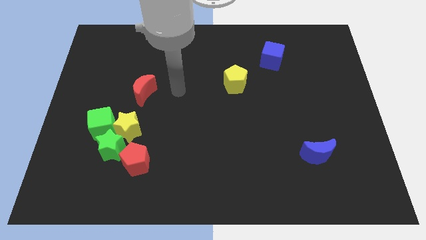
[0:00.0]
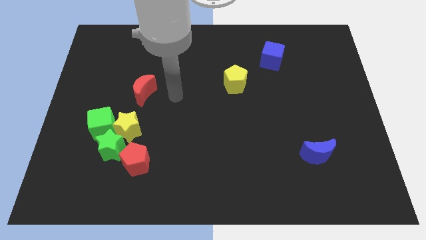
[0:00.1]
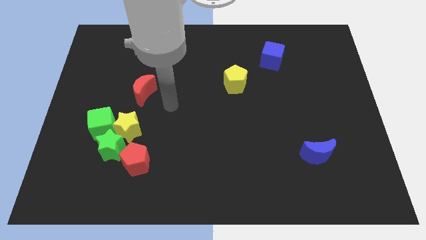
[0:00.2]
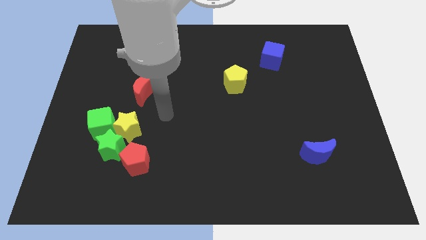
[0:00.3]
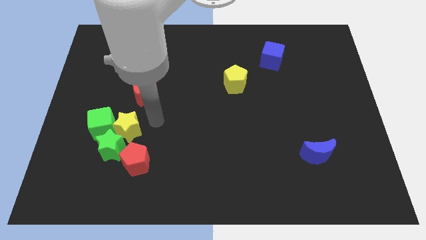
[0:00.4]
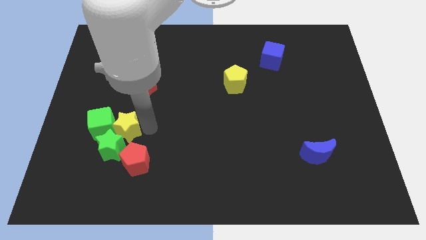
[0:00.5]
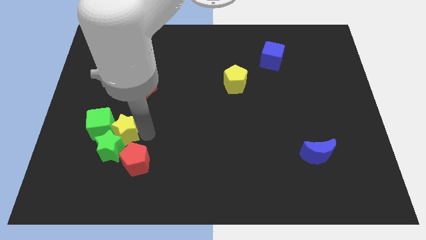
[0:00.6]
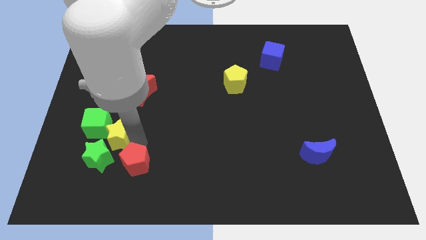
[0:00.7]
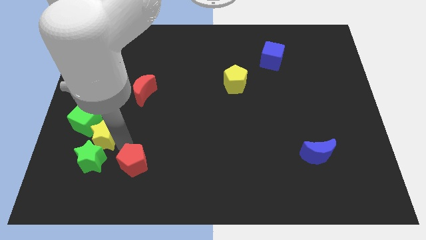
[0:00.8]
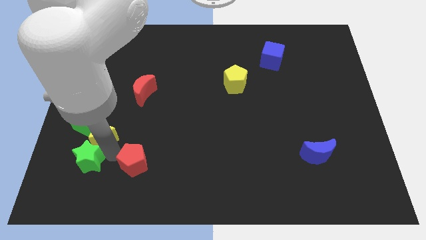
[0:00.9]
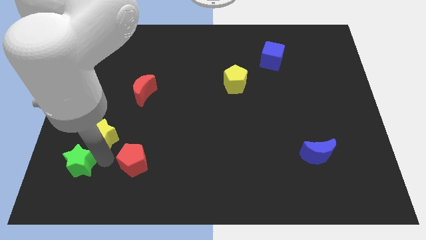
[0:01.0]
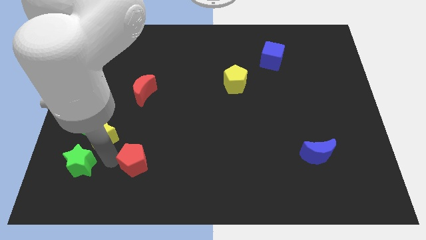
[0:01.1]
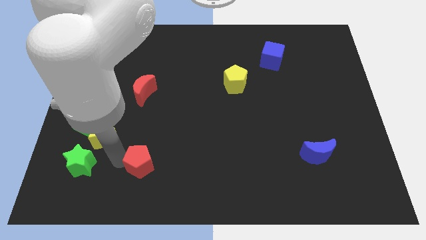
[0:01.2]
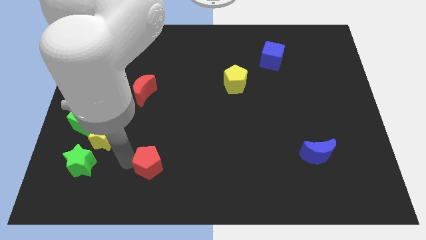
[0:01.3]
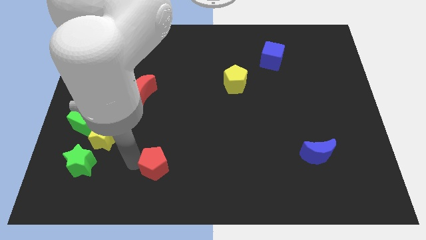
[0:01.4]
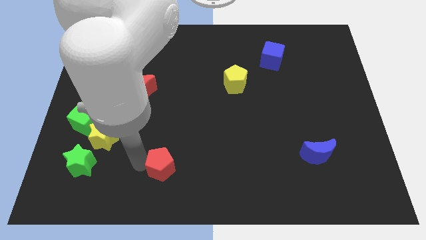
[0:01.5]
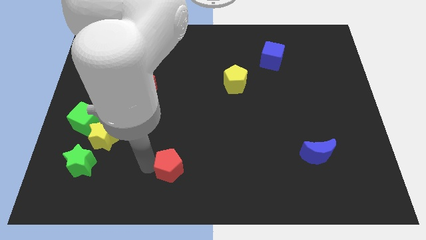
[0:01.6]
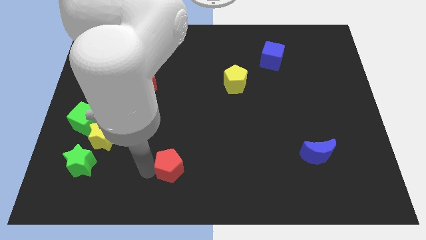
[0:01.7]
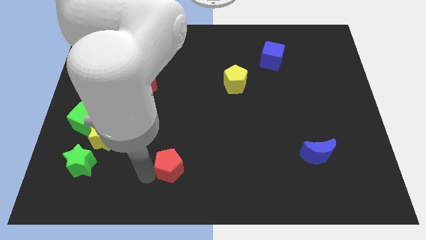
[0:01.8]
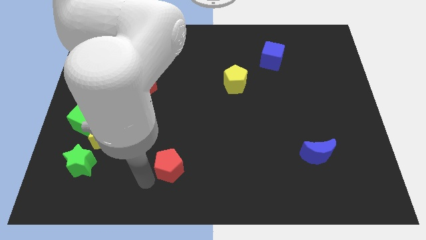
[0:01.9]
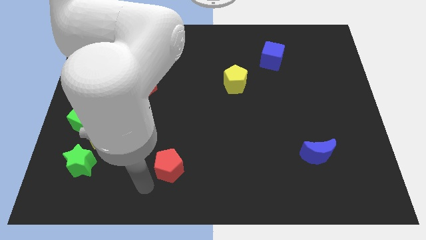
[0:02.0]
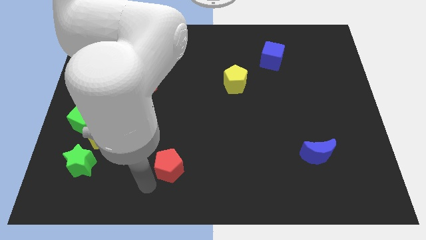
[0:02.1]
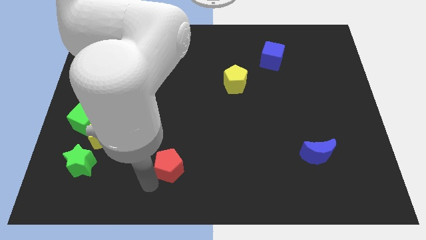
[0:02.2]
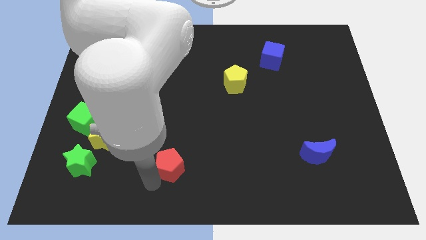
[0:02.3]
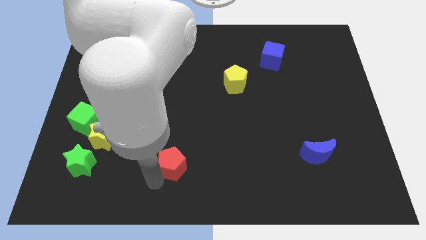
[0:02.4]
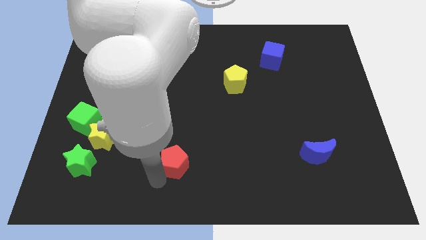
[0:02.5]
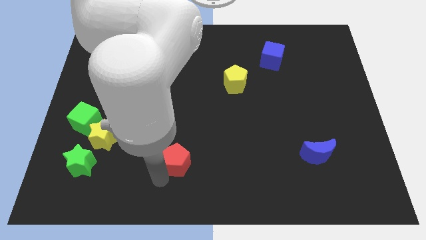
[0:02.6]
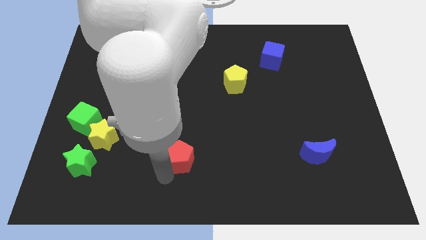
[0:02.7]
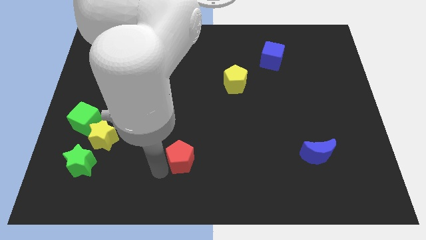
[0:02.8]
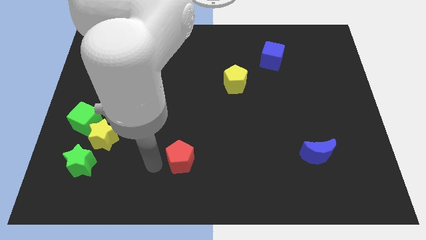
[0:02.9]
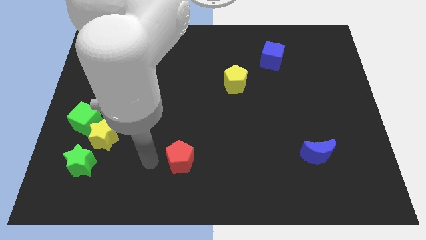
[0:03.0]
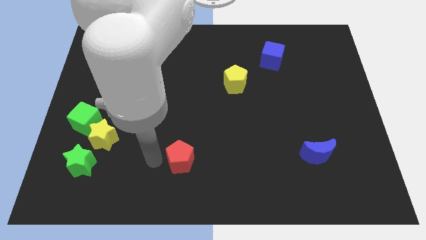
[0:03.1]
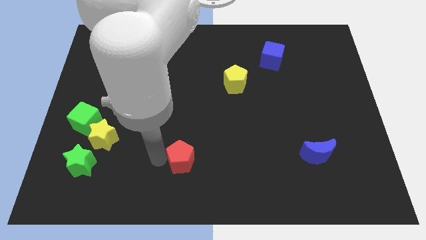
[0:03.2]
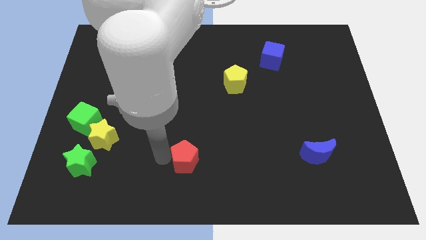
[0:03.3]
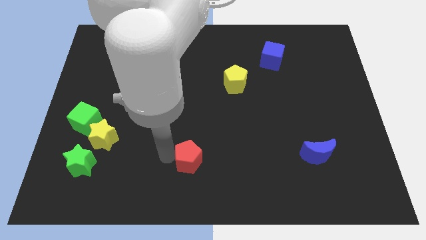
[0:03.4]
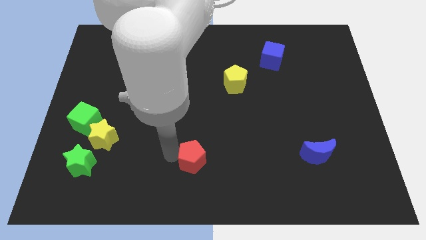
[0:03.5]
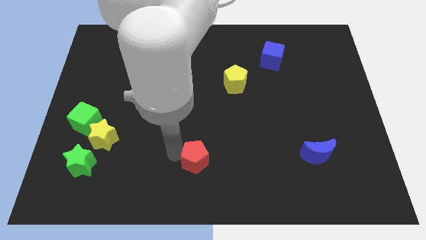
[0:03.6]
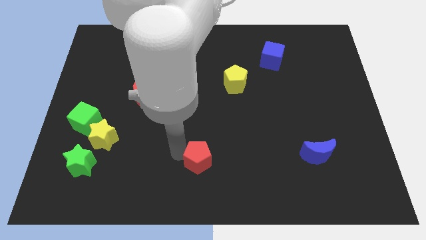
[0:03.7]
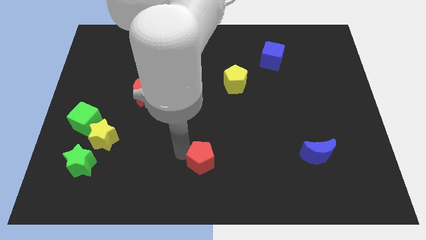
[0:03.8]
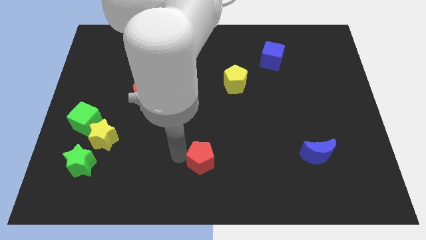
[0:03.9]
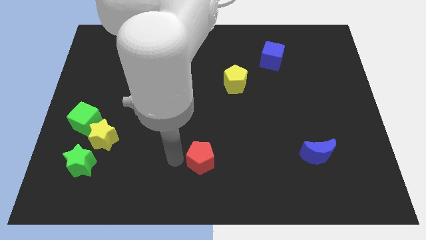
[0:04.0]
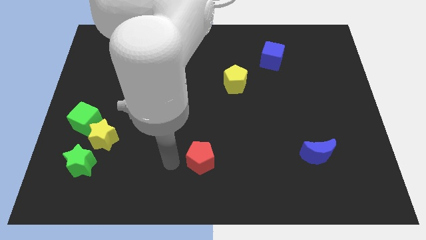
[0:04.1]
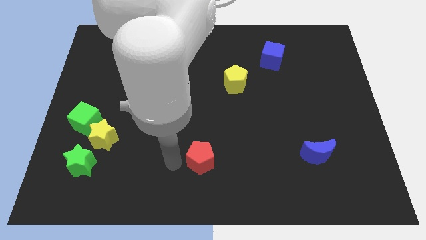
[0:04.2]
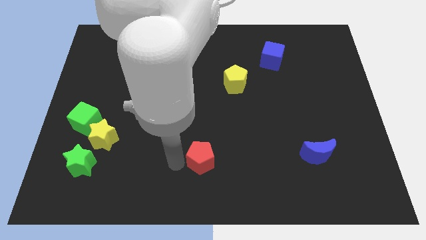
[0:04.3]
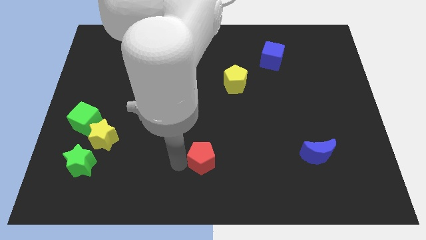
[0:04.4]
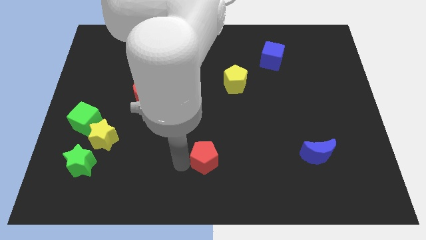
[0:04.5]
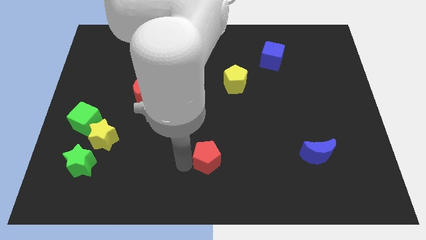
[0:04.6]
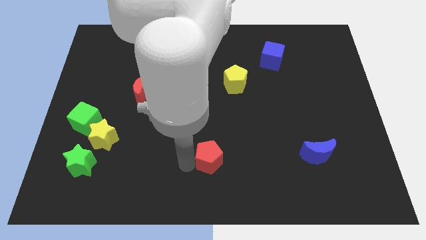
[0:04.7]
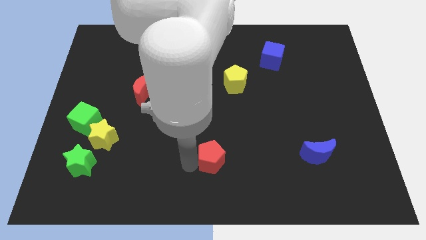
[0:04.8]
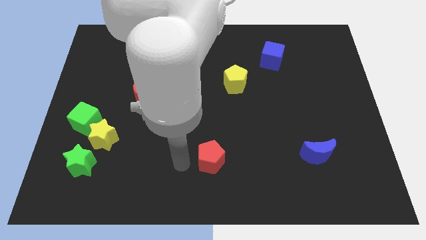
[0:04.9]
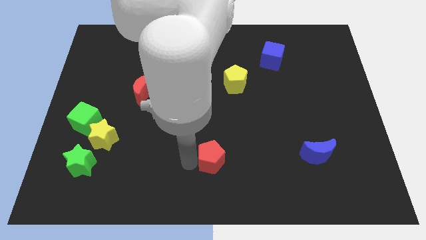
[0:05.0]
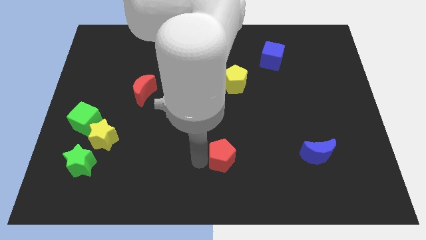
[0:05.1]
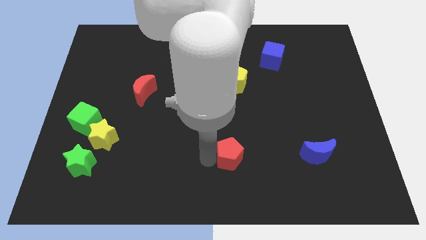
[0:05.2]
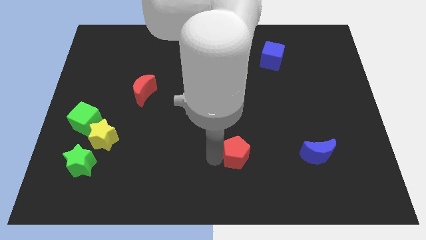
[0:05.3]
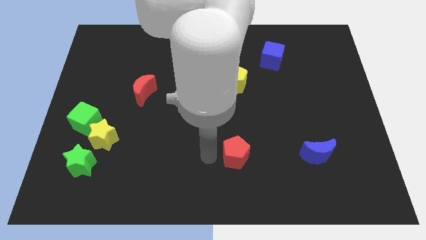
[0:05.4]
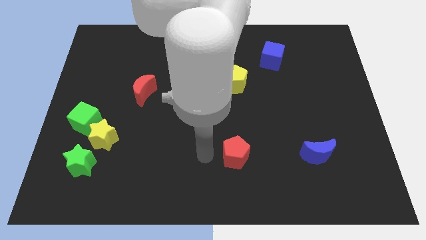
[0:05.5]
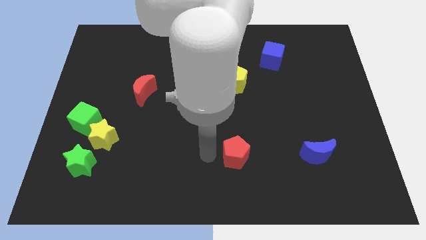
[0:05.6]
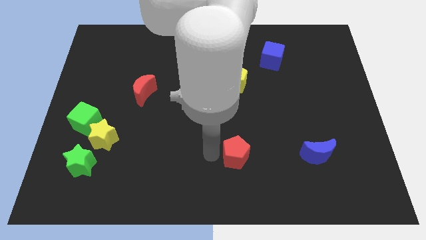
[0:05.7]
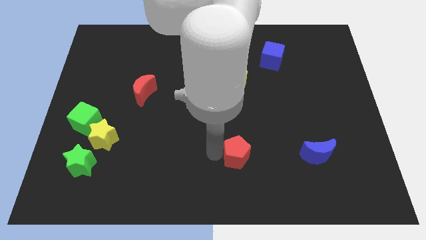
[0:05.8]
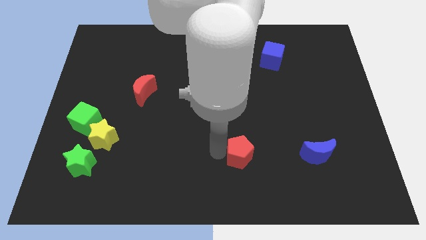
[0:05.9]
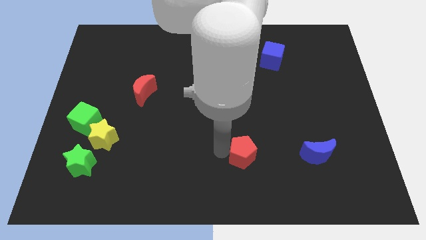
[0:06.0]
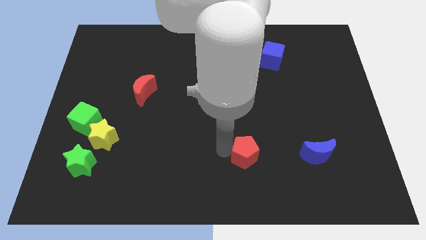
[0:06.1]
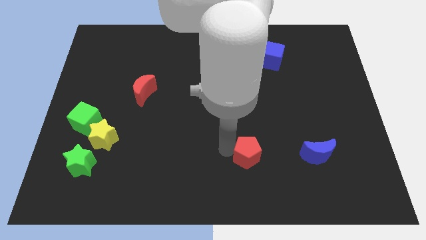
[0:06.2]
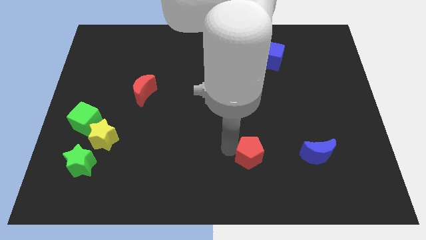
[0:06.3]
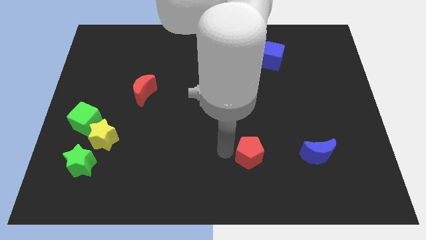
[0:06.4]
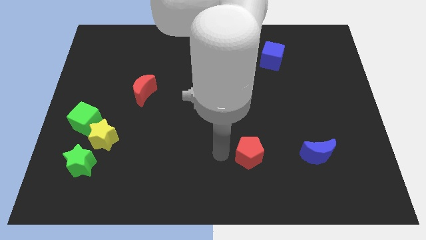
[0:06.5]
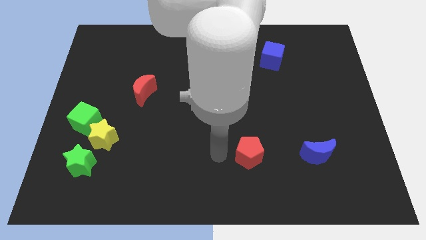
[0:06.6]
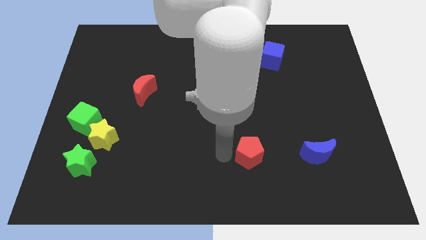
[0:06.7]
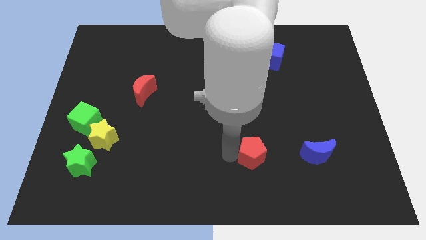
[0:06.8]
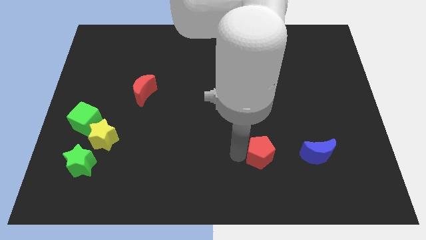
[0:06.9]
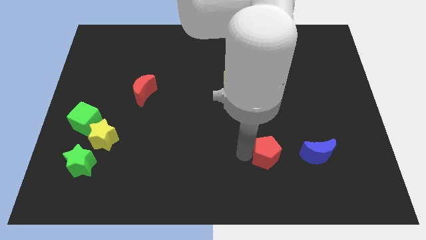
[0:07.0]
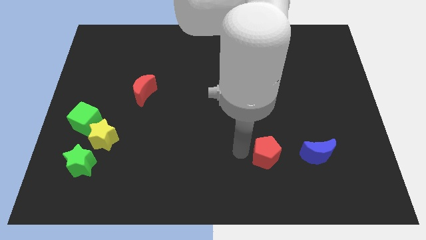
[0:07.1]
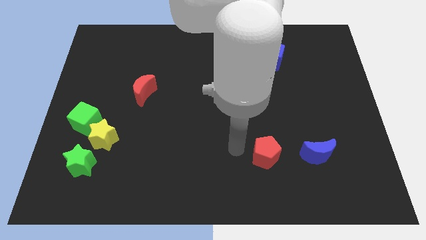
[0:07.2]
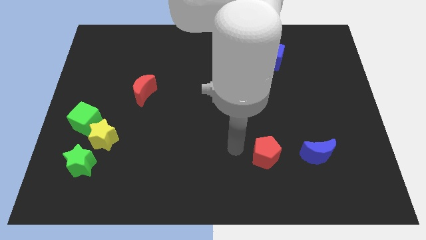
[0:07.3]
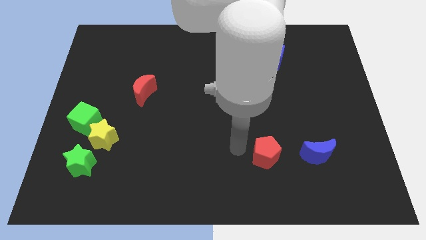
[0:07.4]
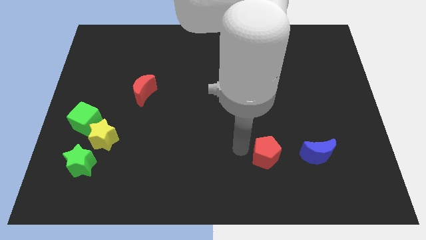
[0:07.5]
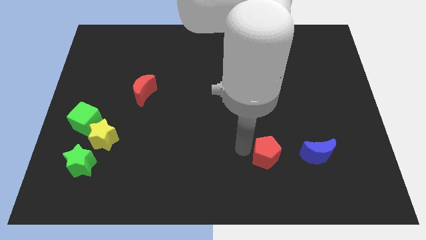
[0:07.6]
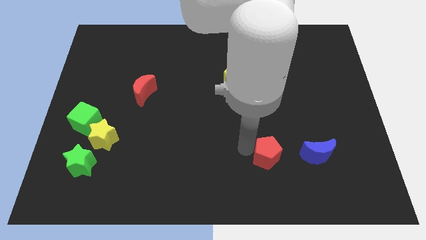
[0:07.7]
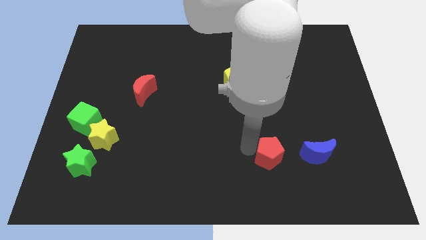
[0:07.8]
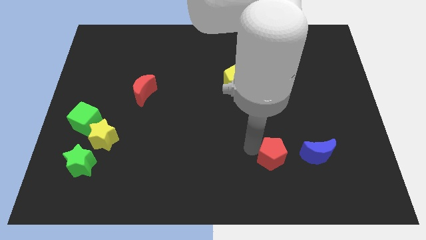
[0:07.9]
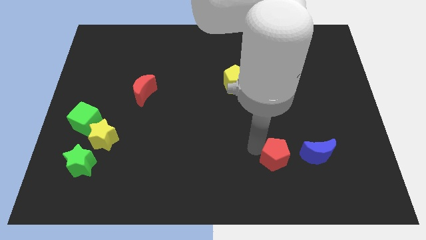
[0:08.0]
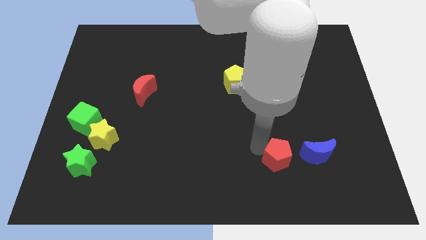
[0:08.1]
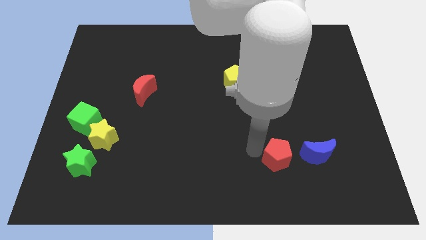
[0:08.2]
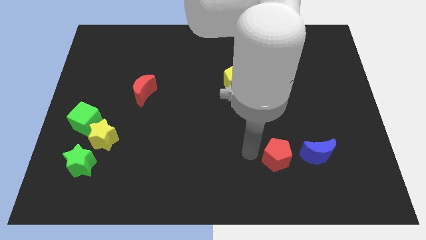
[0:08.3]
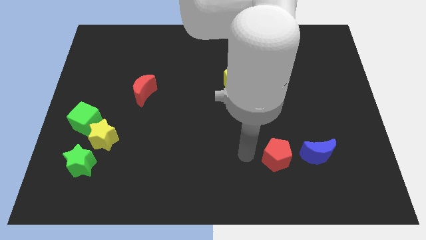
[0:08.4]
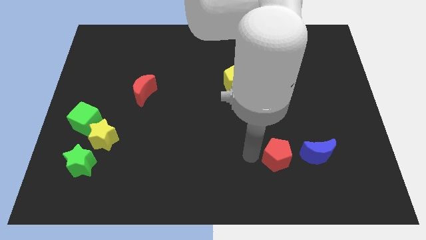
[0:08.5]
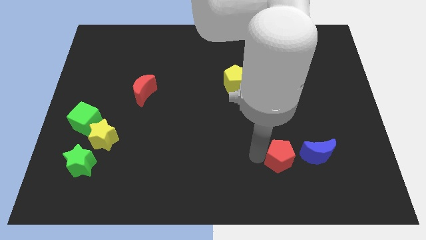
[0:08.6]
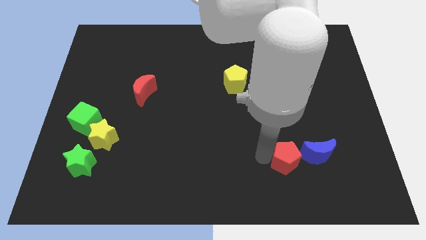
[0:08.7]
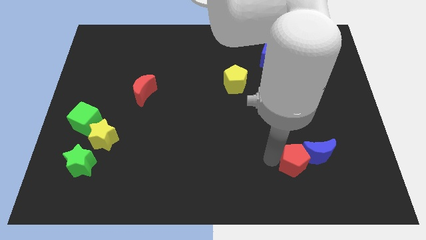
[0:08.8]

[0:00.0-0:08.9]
move the red pentagon close to the blue moon
